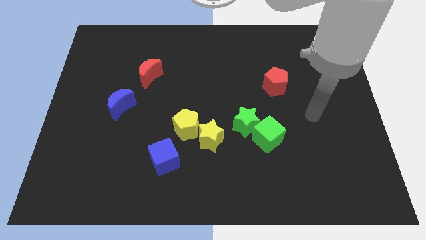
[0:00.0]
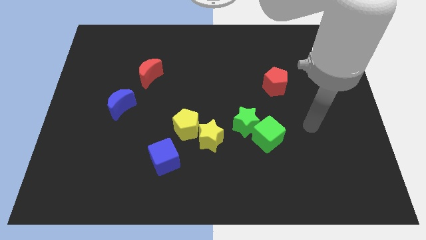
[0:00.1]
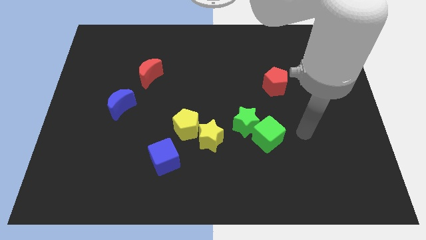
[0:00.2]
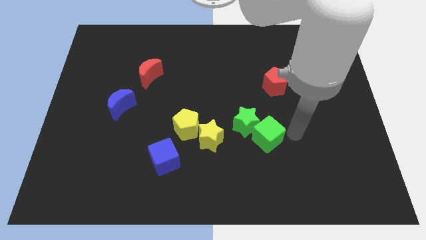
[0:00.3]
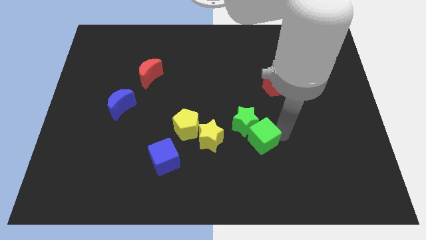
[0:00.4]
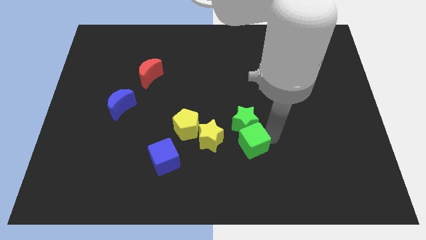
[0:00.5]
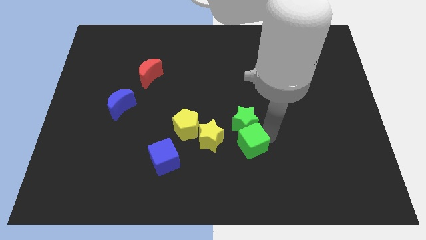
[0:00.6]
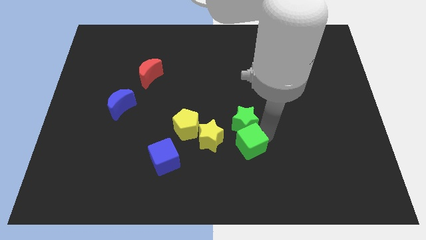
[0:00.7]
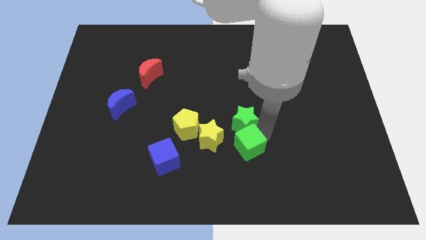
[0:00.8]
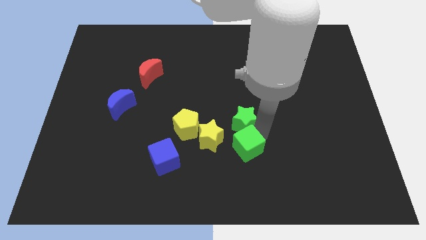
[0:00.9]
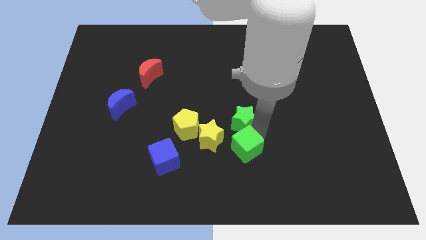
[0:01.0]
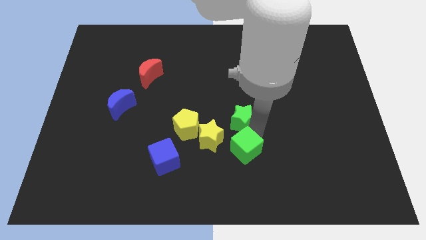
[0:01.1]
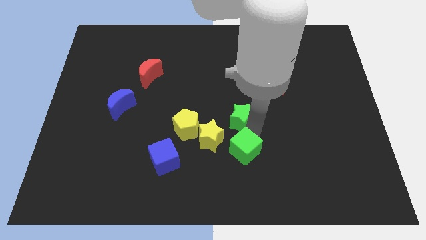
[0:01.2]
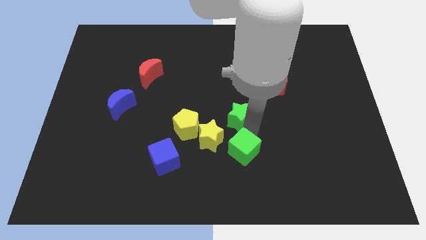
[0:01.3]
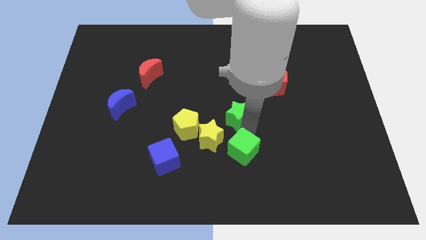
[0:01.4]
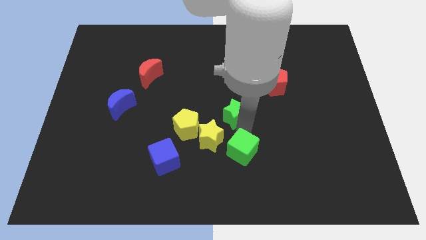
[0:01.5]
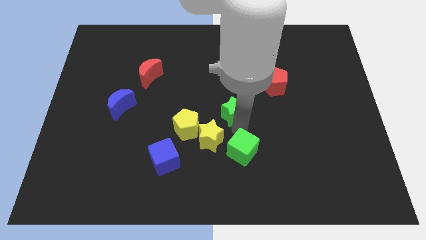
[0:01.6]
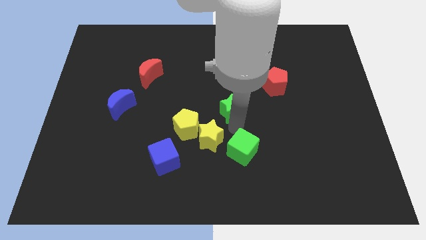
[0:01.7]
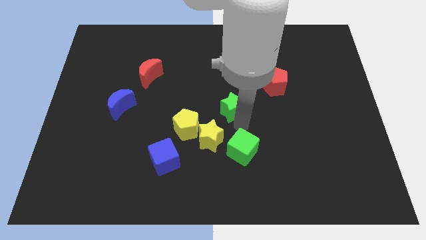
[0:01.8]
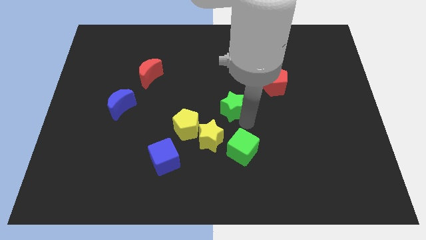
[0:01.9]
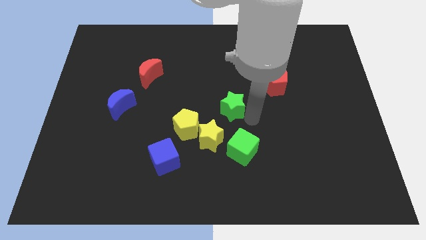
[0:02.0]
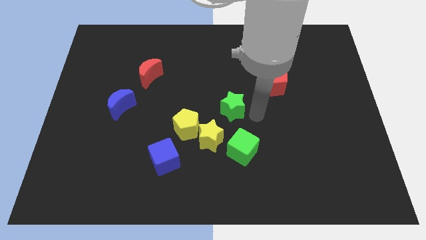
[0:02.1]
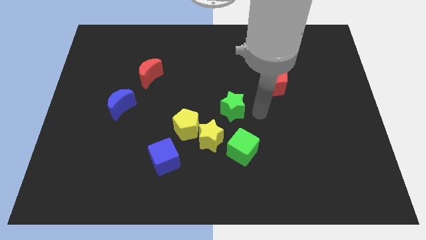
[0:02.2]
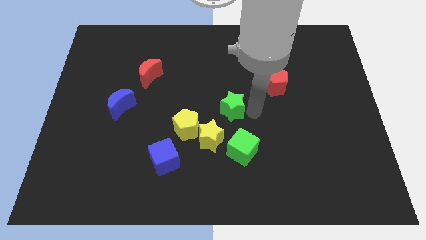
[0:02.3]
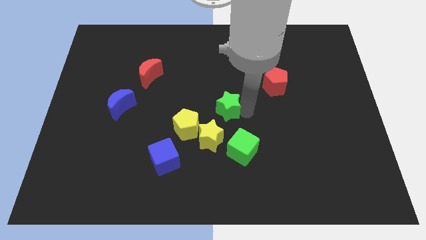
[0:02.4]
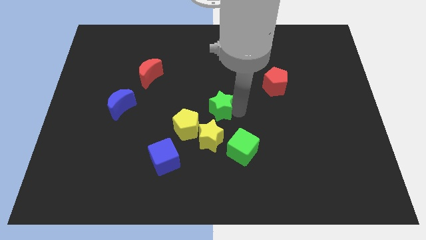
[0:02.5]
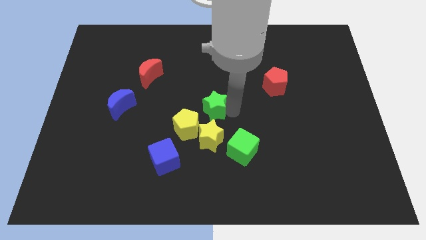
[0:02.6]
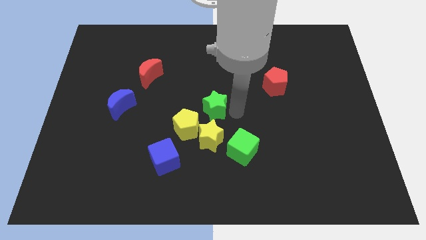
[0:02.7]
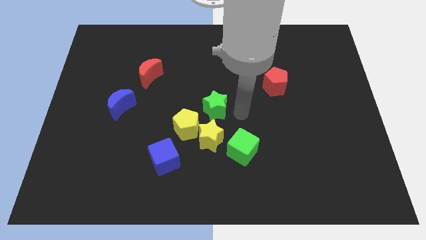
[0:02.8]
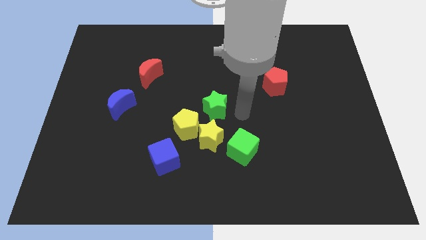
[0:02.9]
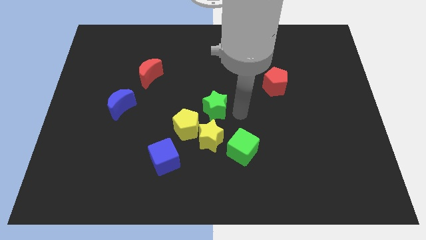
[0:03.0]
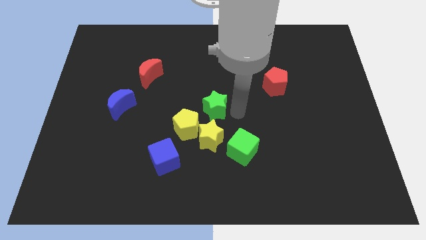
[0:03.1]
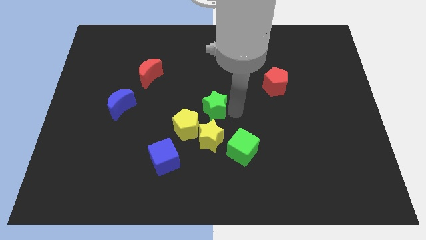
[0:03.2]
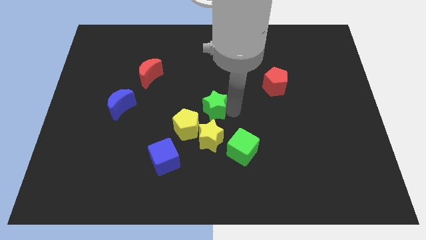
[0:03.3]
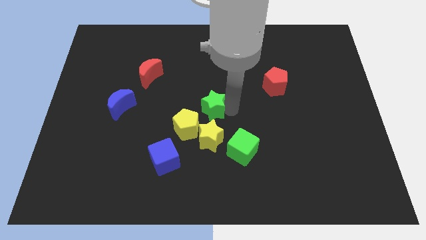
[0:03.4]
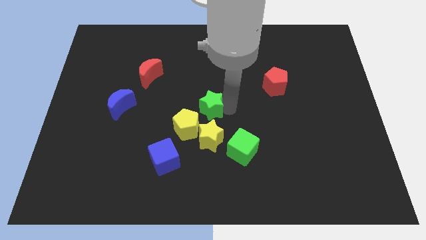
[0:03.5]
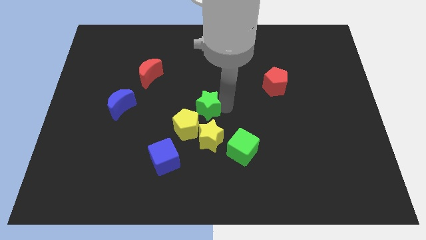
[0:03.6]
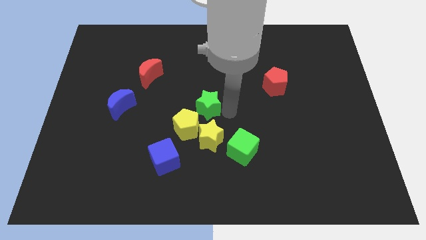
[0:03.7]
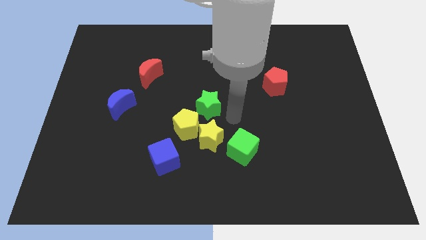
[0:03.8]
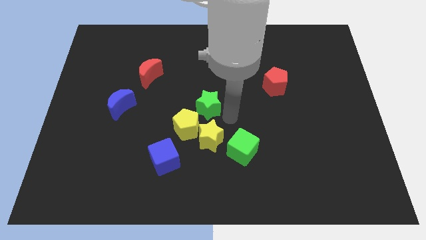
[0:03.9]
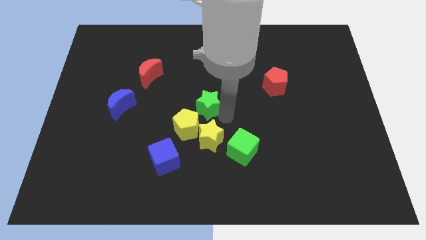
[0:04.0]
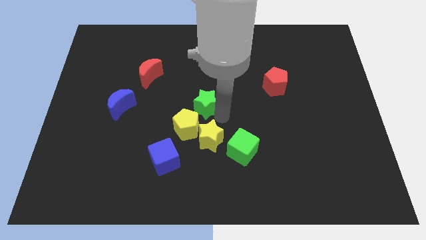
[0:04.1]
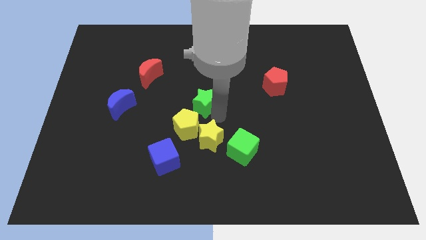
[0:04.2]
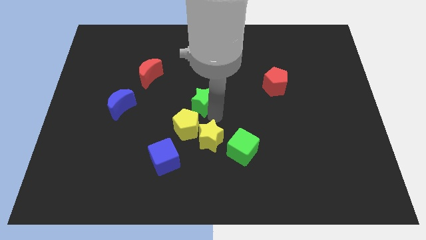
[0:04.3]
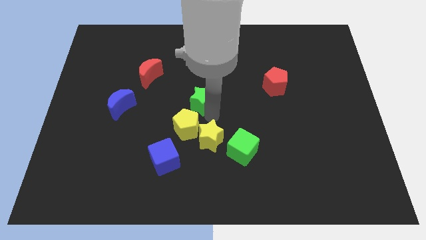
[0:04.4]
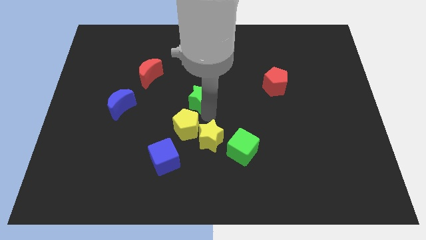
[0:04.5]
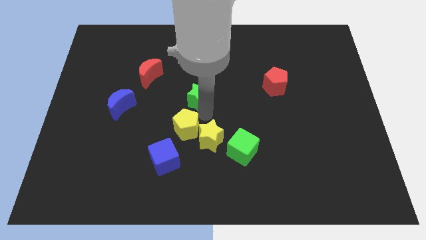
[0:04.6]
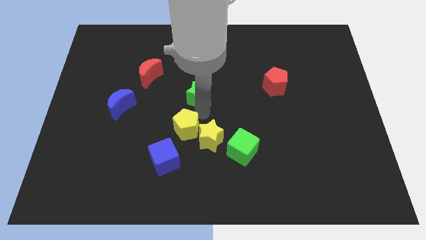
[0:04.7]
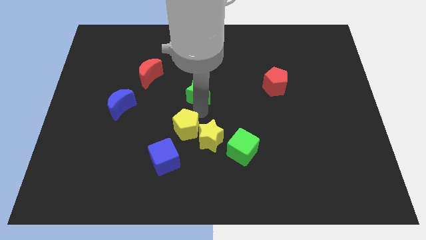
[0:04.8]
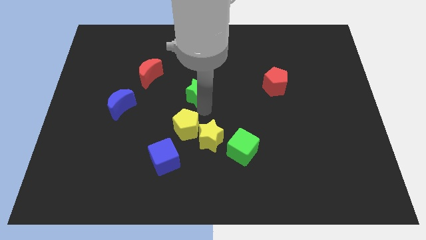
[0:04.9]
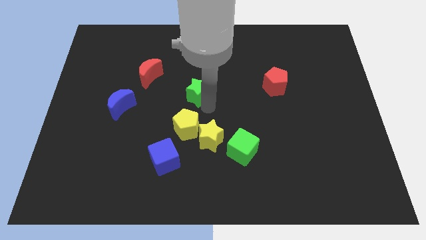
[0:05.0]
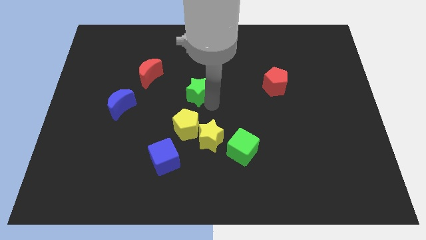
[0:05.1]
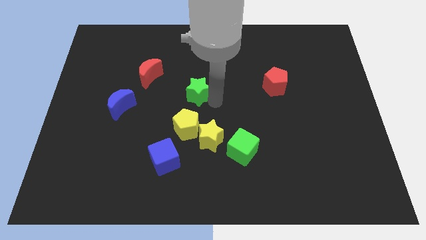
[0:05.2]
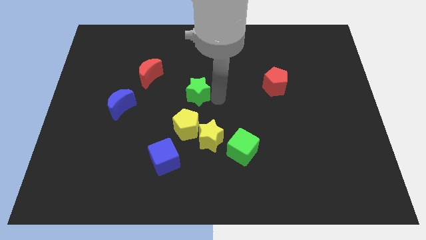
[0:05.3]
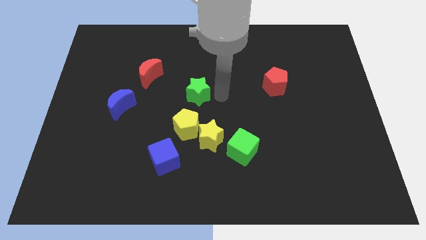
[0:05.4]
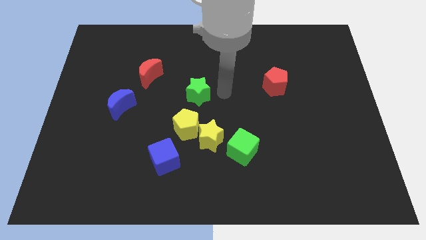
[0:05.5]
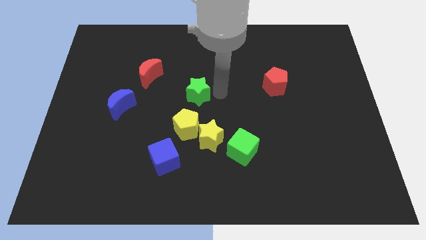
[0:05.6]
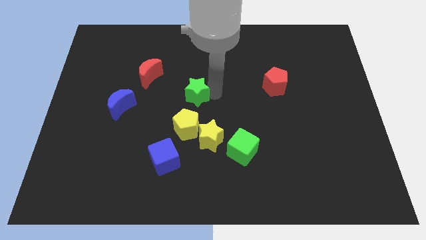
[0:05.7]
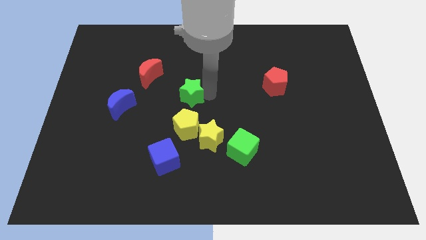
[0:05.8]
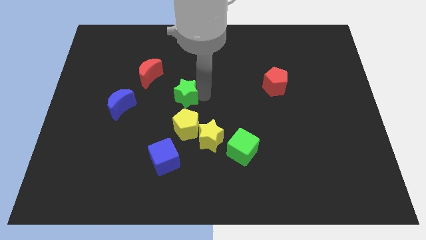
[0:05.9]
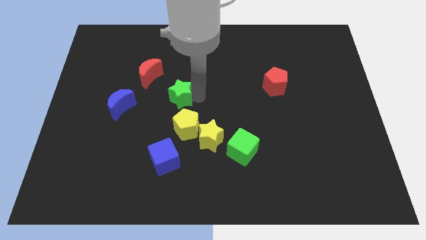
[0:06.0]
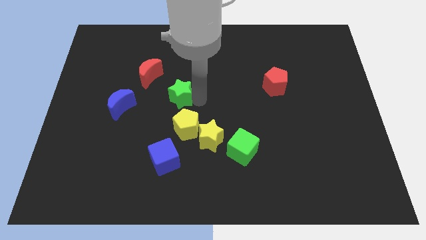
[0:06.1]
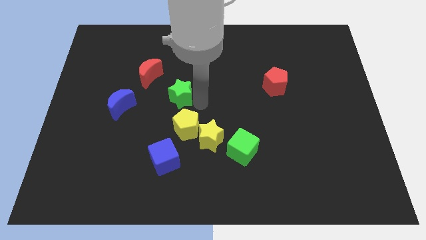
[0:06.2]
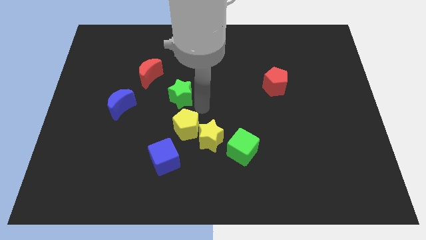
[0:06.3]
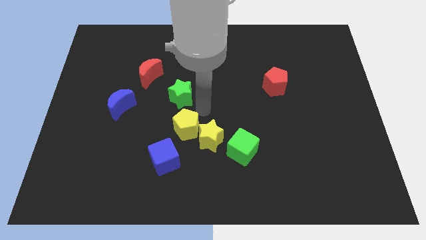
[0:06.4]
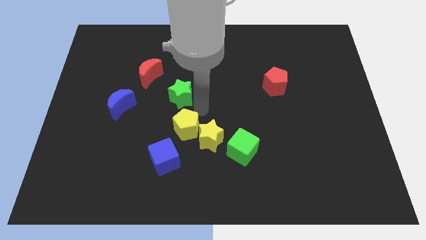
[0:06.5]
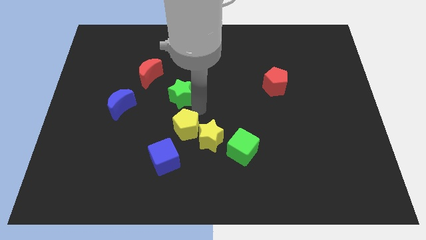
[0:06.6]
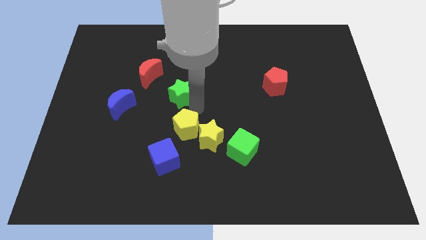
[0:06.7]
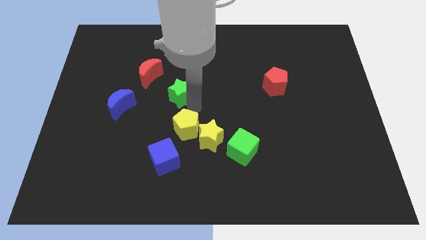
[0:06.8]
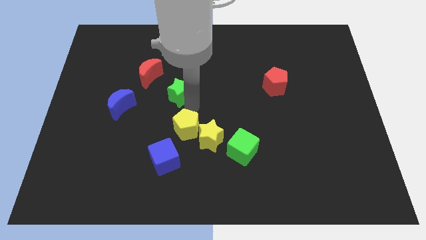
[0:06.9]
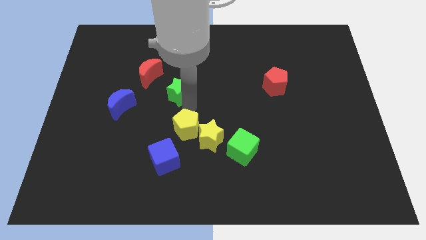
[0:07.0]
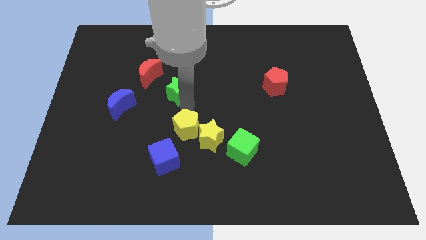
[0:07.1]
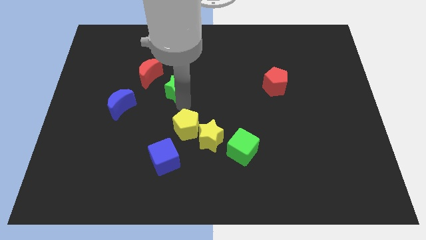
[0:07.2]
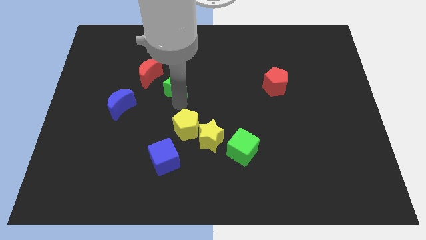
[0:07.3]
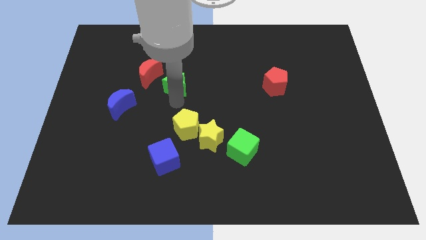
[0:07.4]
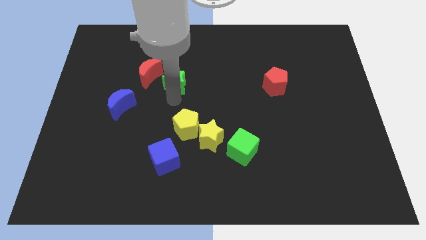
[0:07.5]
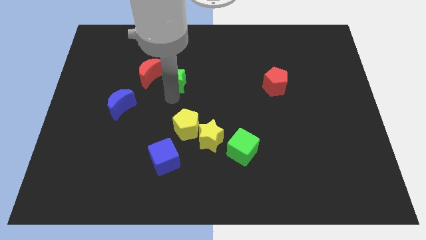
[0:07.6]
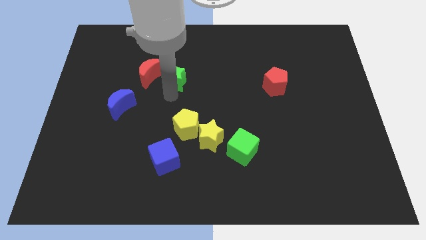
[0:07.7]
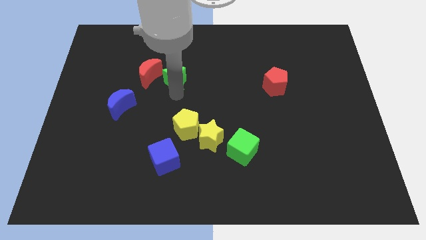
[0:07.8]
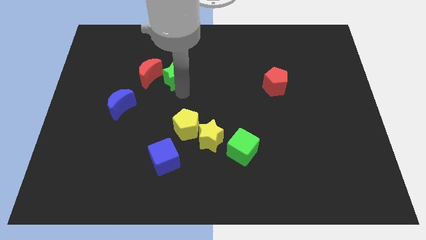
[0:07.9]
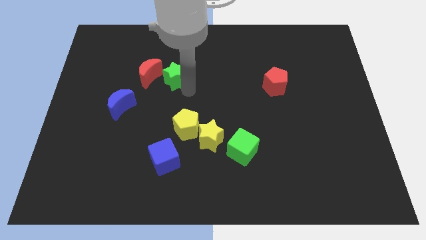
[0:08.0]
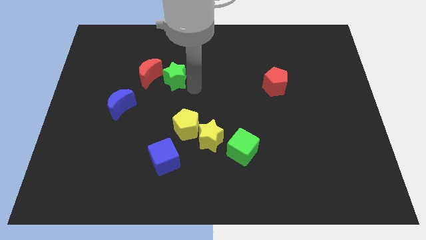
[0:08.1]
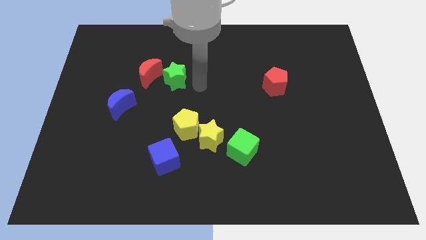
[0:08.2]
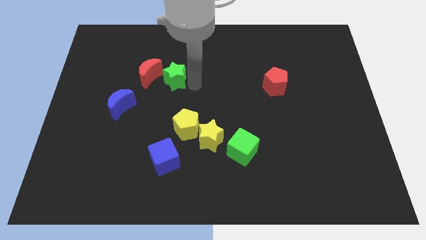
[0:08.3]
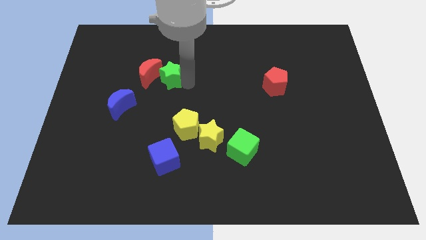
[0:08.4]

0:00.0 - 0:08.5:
put the green star close to the red moon
